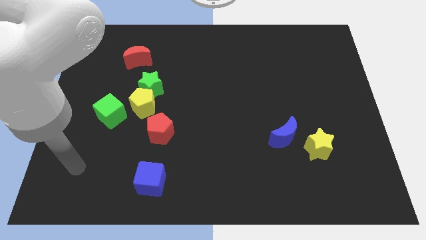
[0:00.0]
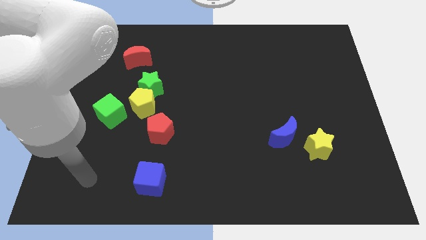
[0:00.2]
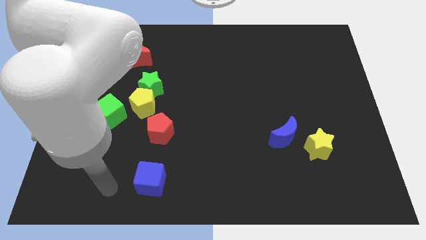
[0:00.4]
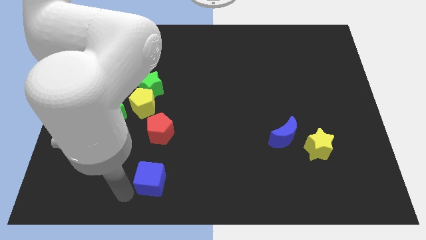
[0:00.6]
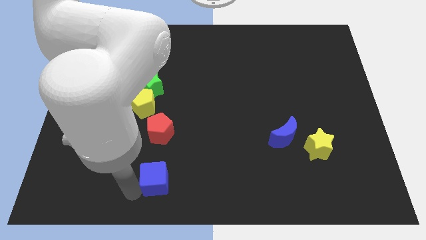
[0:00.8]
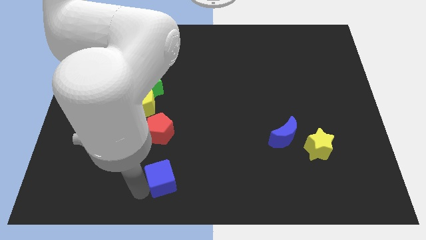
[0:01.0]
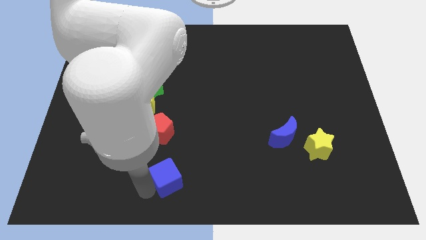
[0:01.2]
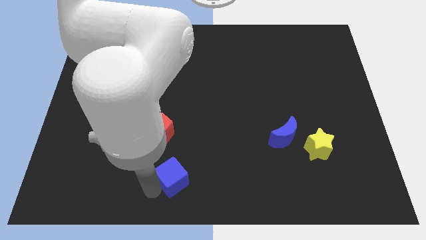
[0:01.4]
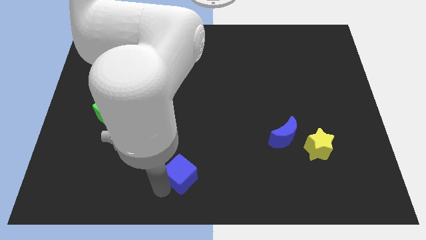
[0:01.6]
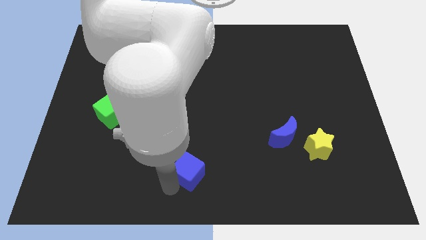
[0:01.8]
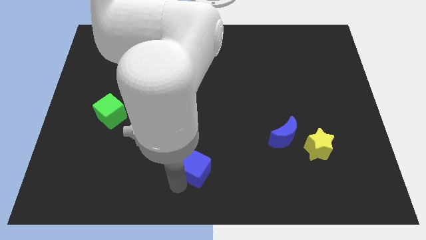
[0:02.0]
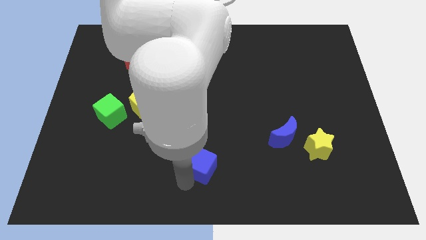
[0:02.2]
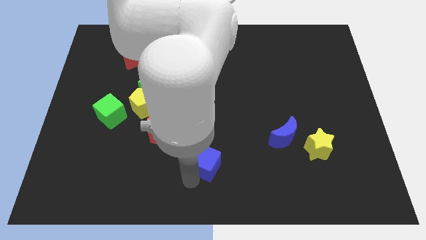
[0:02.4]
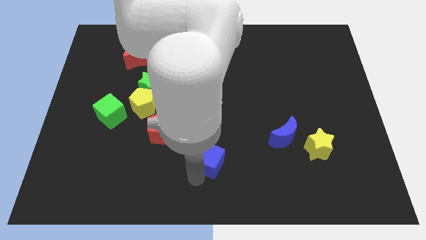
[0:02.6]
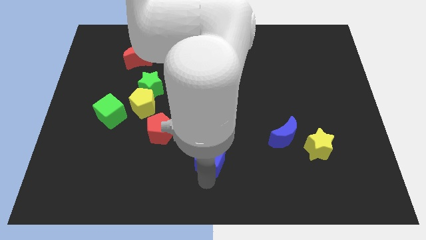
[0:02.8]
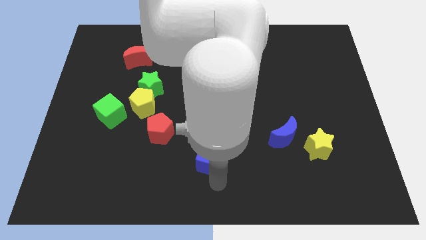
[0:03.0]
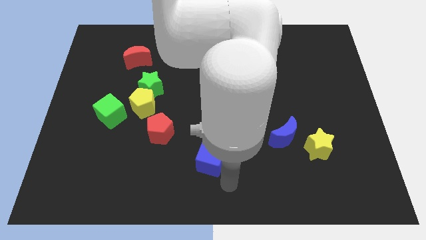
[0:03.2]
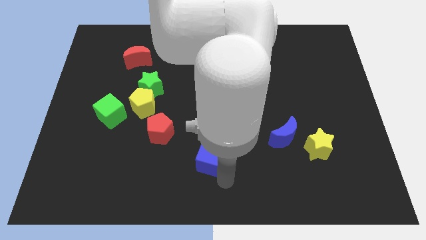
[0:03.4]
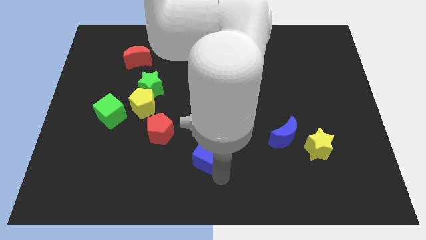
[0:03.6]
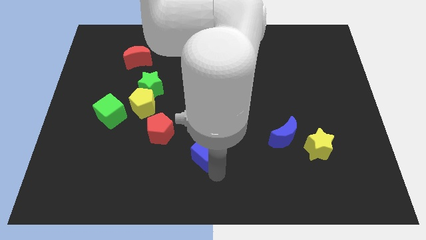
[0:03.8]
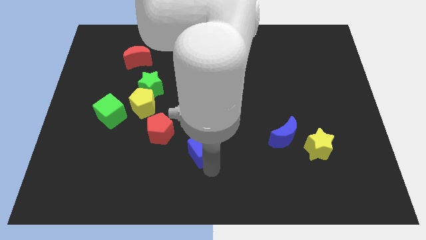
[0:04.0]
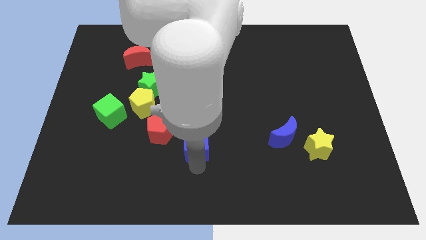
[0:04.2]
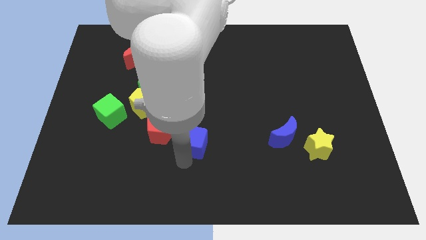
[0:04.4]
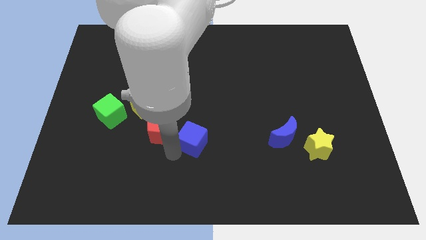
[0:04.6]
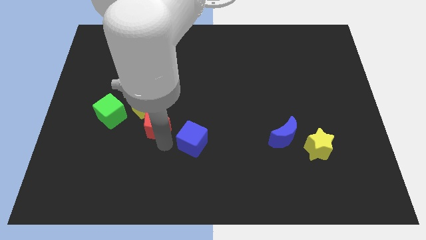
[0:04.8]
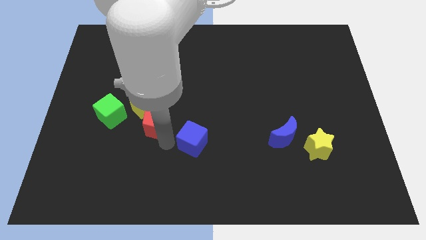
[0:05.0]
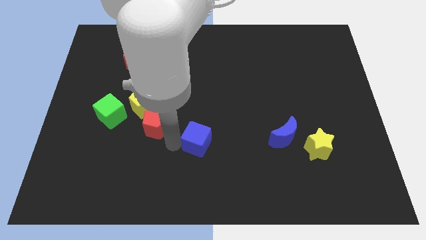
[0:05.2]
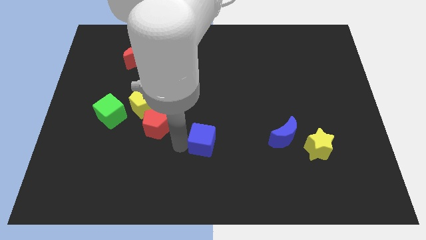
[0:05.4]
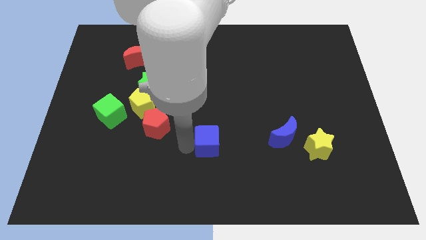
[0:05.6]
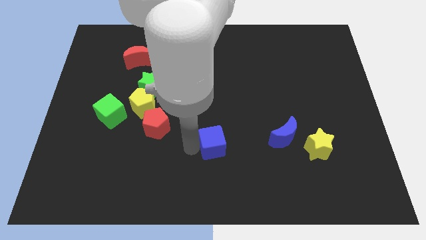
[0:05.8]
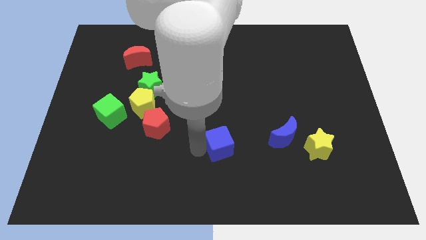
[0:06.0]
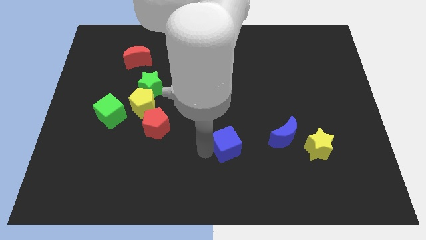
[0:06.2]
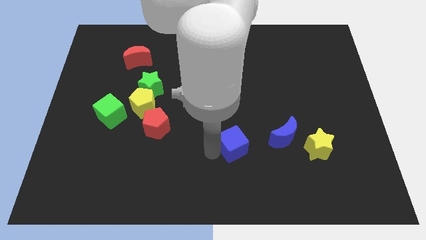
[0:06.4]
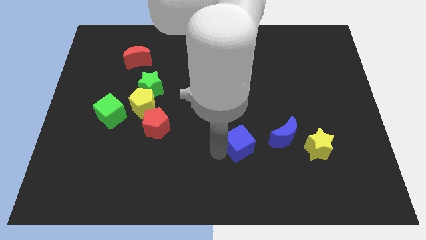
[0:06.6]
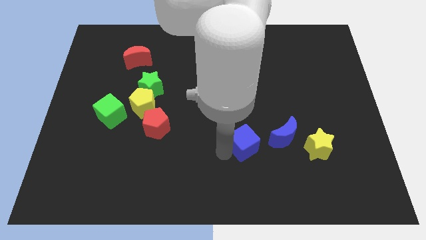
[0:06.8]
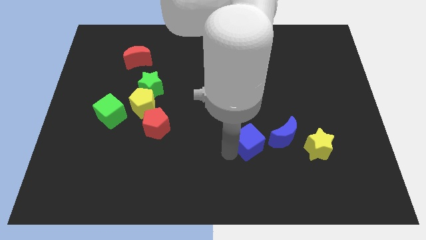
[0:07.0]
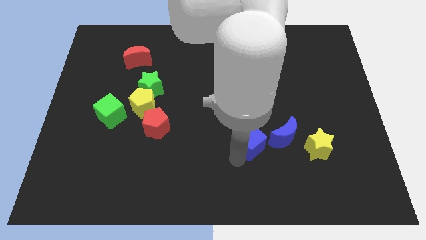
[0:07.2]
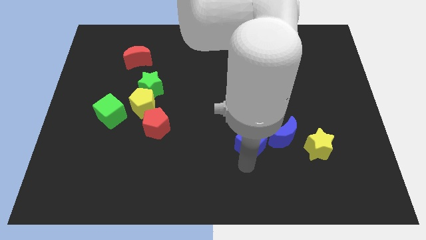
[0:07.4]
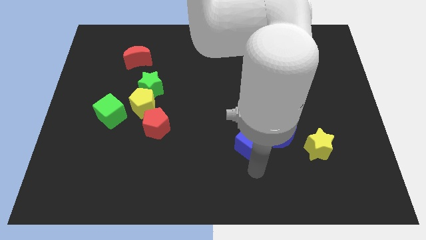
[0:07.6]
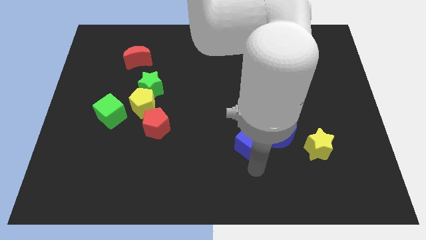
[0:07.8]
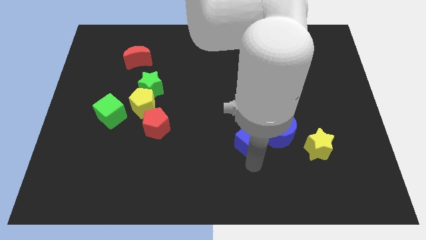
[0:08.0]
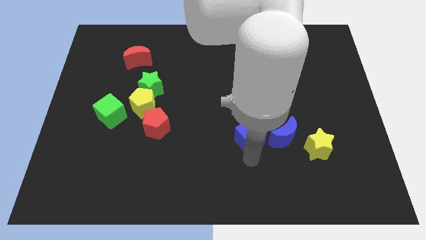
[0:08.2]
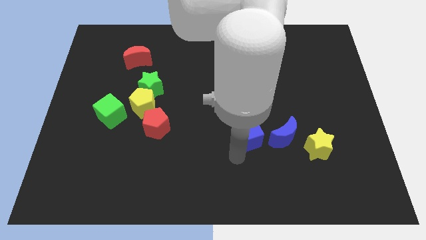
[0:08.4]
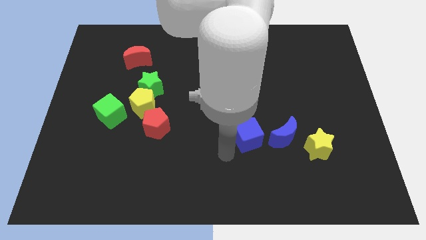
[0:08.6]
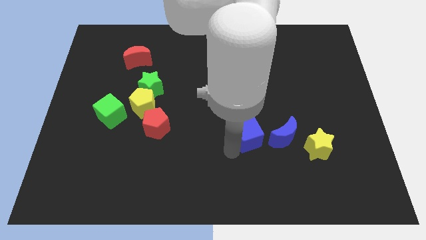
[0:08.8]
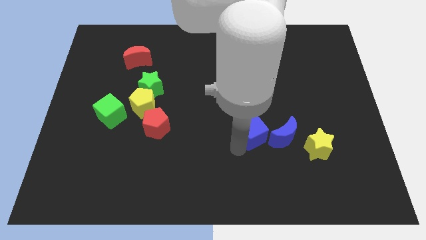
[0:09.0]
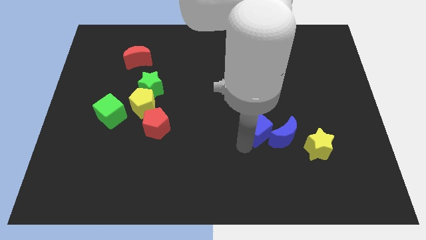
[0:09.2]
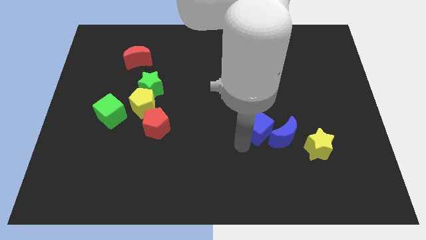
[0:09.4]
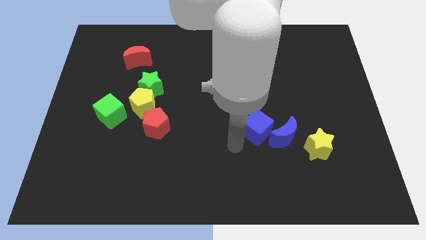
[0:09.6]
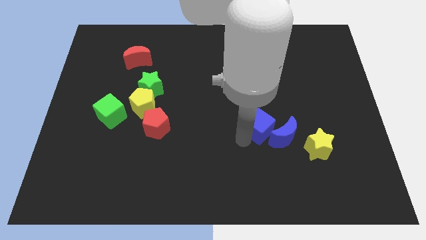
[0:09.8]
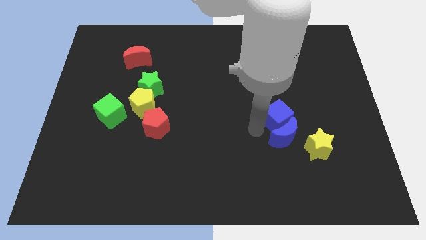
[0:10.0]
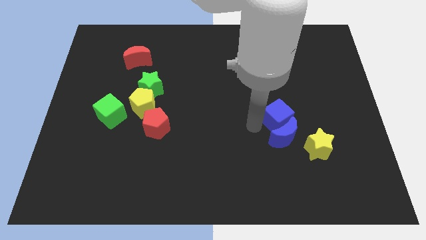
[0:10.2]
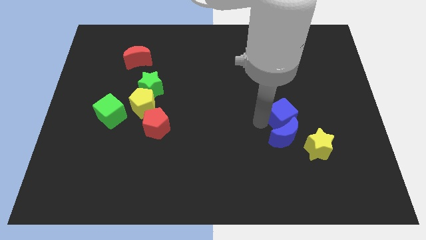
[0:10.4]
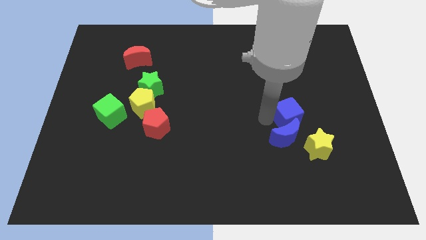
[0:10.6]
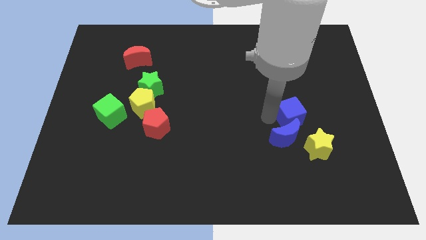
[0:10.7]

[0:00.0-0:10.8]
put the blue cube to the top side of the yellow star

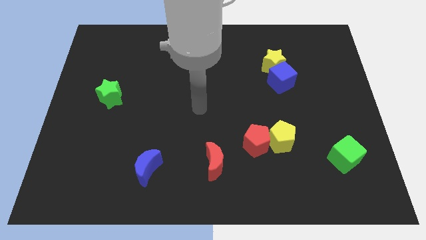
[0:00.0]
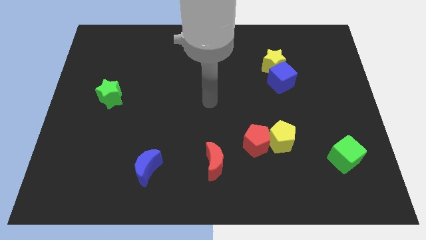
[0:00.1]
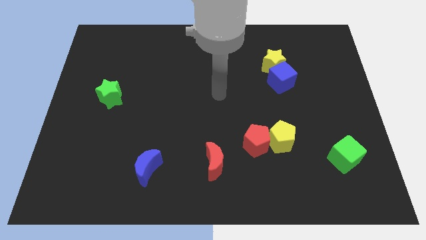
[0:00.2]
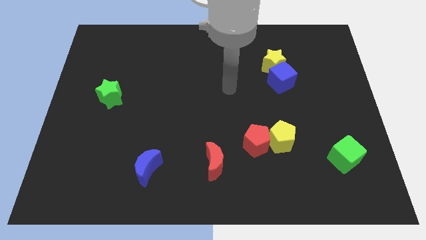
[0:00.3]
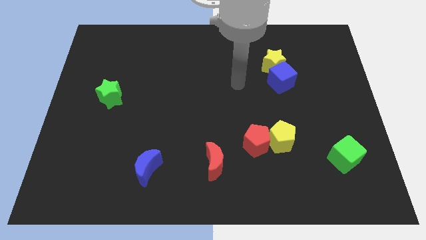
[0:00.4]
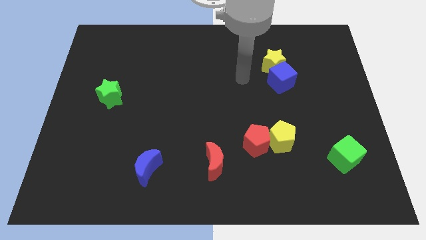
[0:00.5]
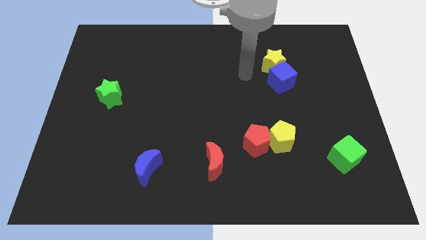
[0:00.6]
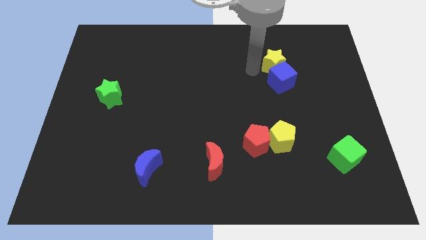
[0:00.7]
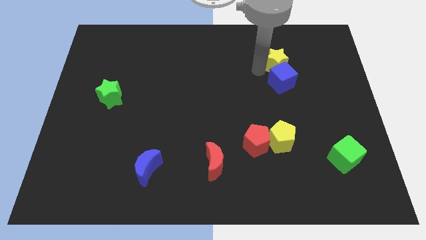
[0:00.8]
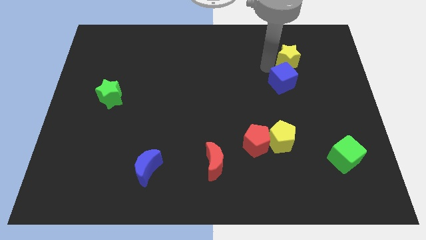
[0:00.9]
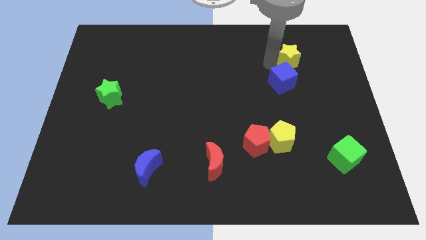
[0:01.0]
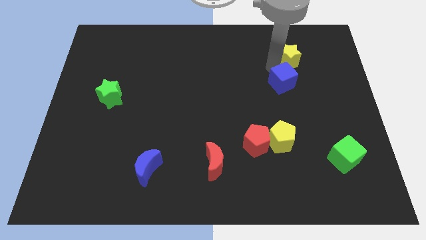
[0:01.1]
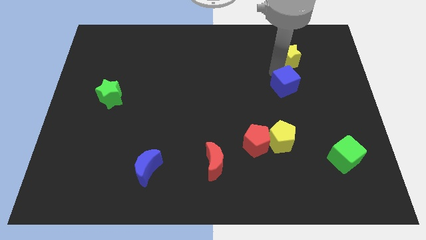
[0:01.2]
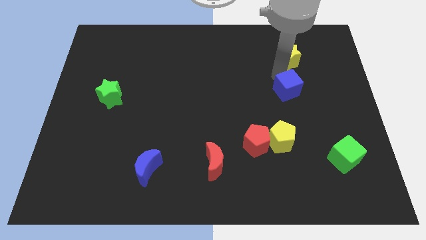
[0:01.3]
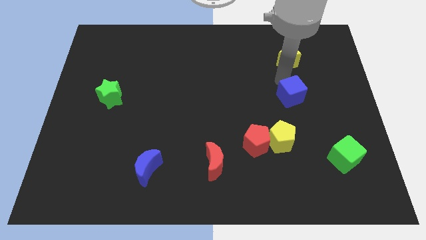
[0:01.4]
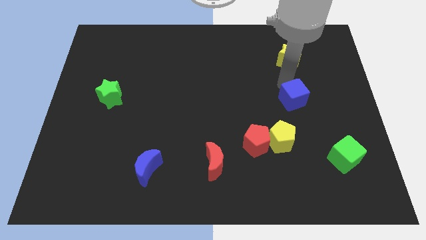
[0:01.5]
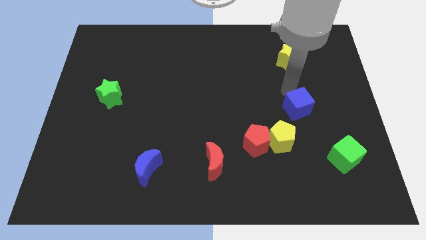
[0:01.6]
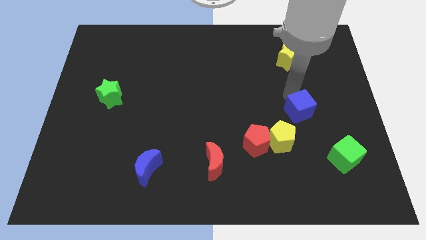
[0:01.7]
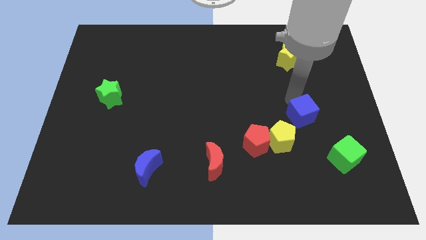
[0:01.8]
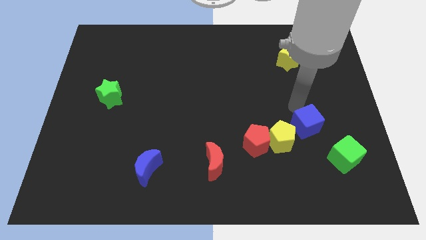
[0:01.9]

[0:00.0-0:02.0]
slide the blue cube to the right side of the yellow pentagon
